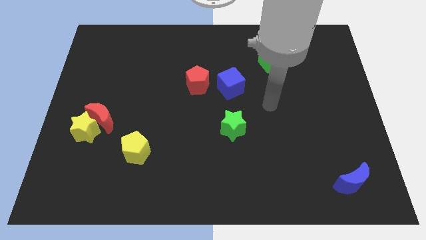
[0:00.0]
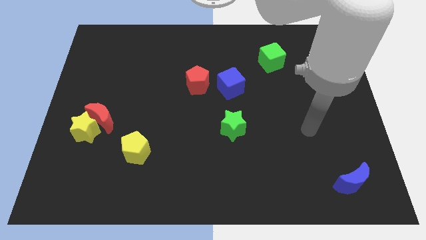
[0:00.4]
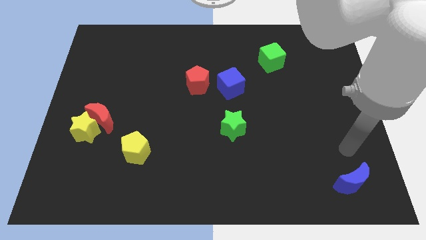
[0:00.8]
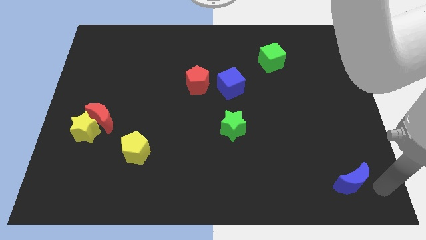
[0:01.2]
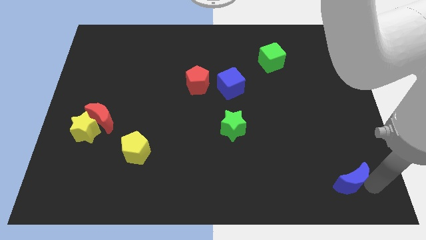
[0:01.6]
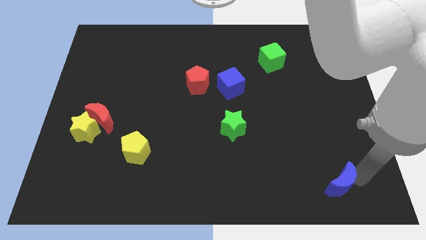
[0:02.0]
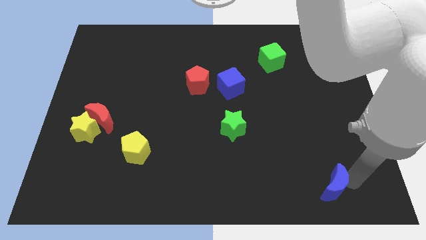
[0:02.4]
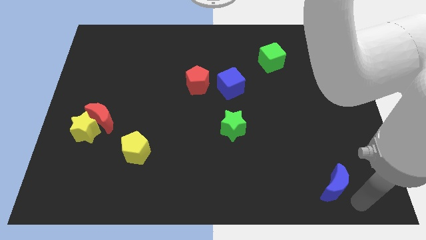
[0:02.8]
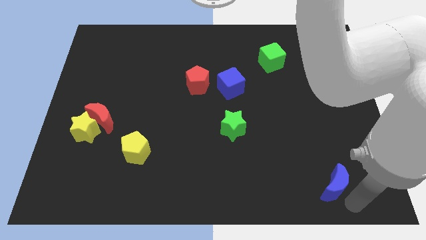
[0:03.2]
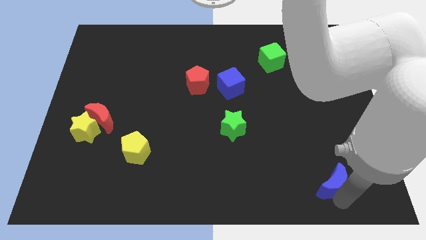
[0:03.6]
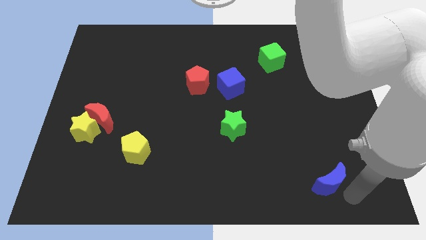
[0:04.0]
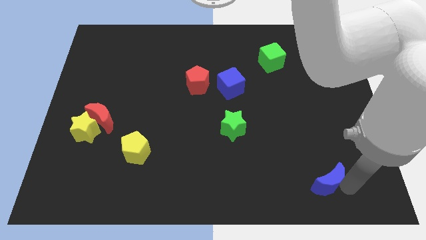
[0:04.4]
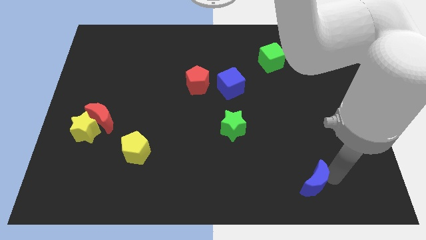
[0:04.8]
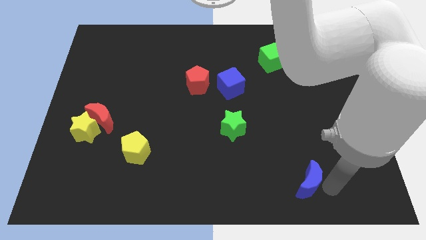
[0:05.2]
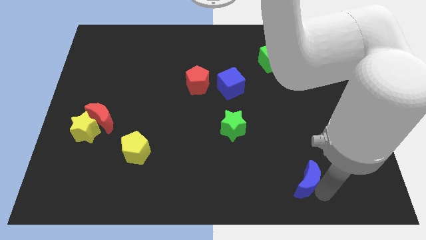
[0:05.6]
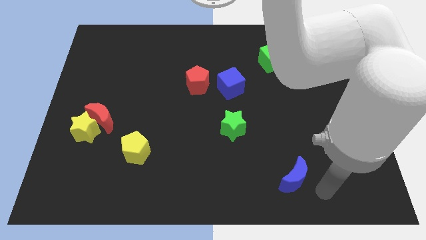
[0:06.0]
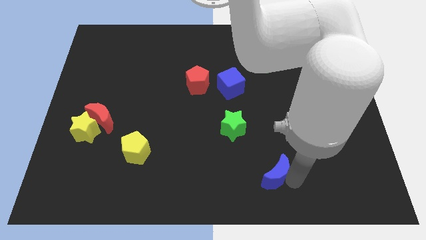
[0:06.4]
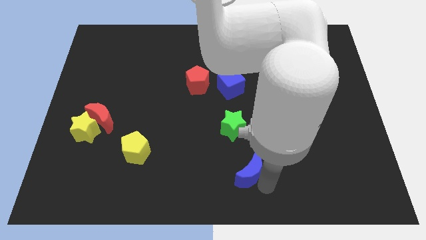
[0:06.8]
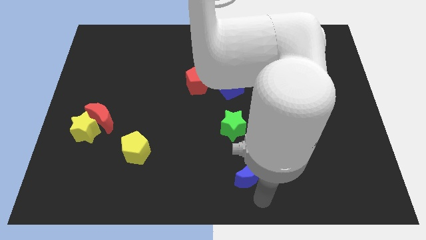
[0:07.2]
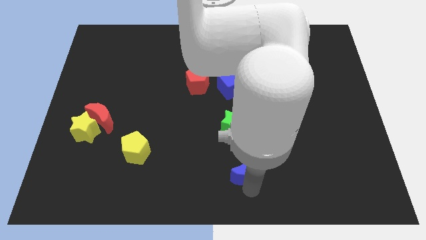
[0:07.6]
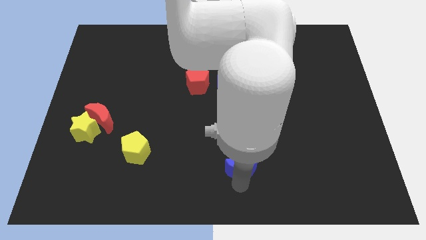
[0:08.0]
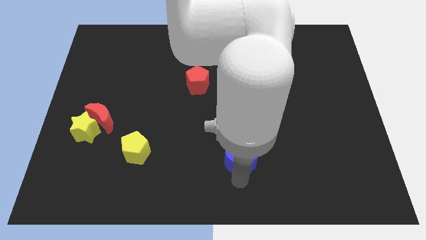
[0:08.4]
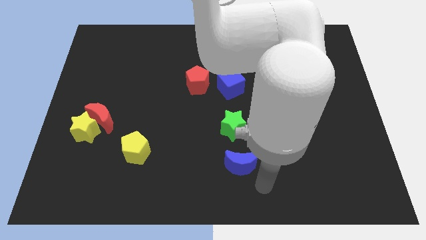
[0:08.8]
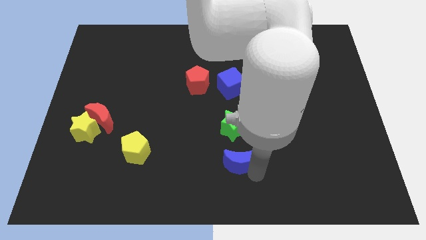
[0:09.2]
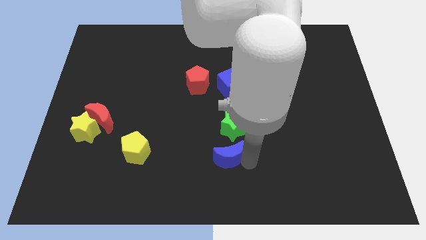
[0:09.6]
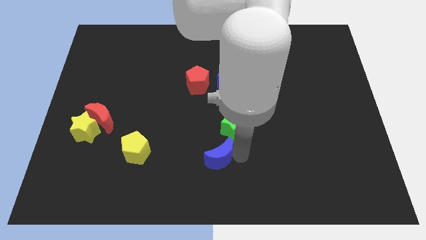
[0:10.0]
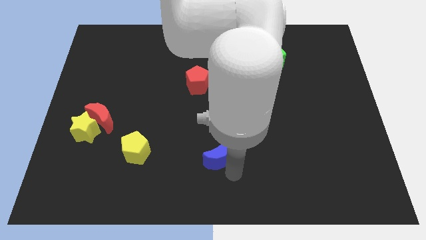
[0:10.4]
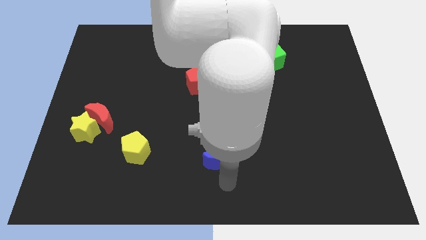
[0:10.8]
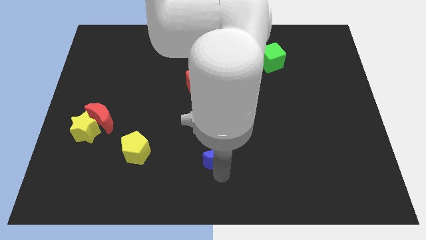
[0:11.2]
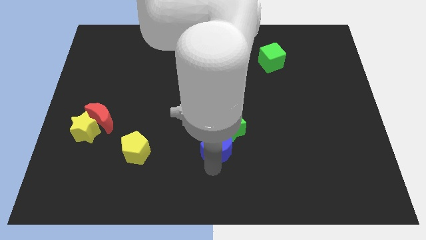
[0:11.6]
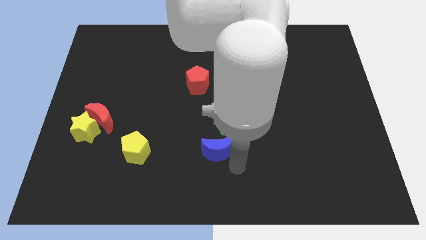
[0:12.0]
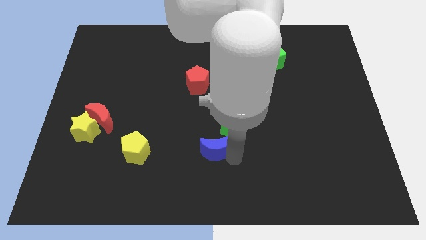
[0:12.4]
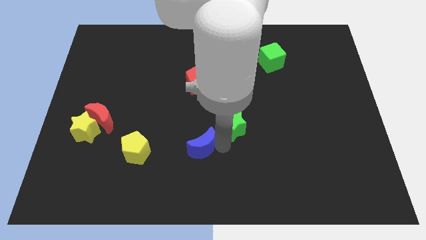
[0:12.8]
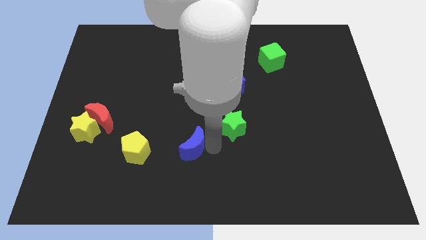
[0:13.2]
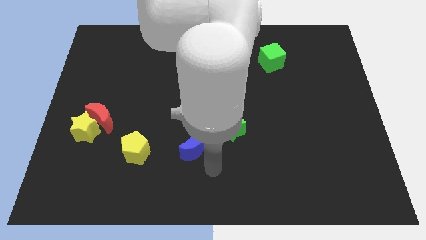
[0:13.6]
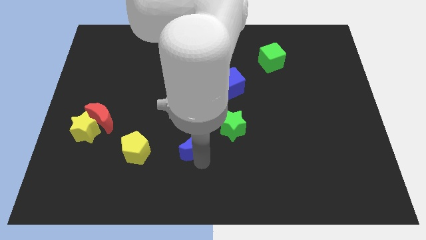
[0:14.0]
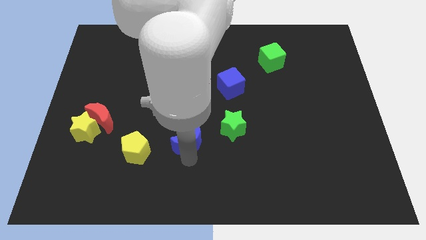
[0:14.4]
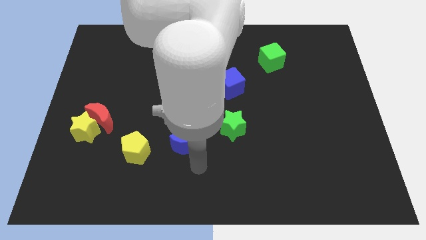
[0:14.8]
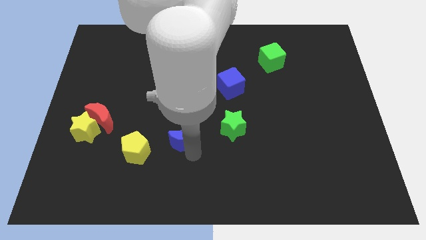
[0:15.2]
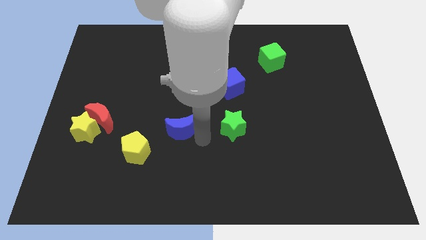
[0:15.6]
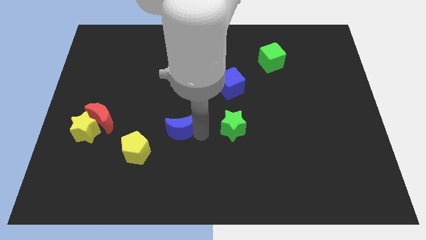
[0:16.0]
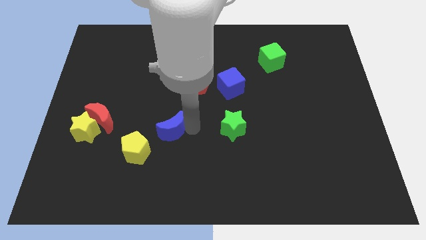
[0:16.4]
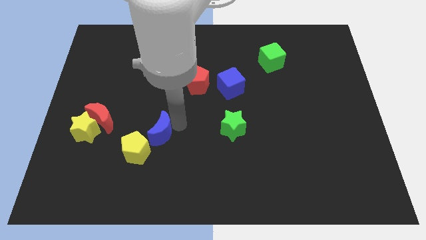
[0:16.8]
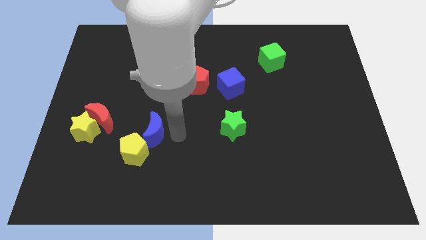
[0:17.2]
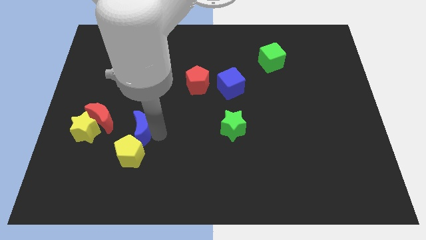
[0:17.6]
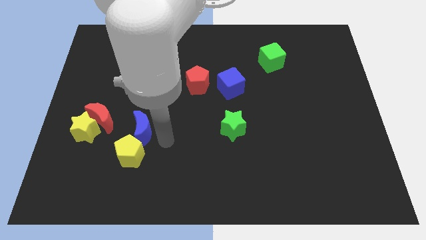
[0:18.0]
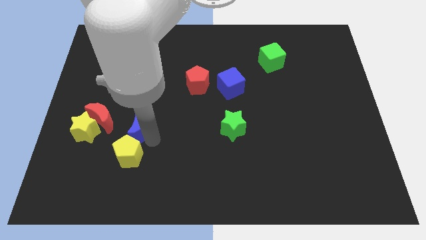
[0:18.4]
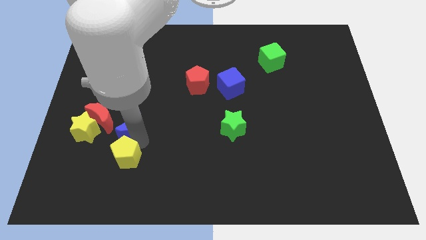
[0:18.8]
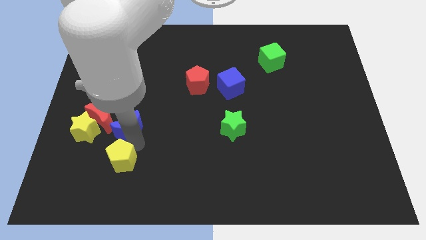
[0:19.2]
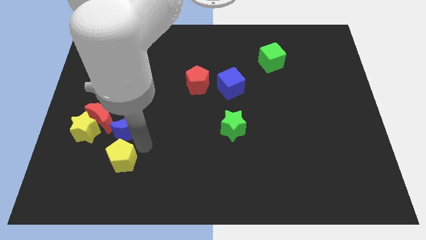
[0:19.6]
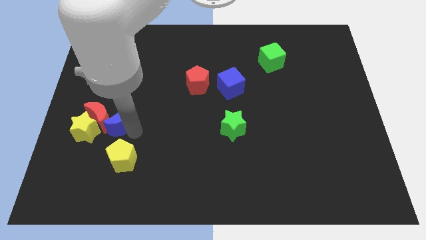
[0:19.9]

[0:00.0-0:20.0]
move the blue moon close to the red moon

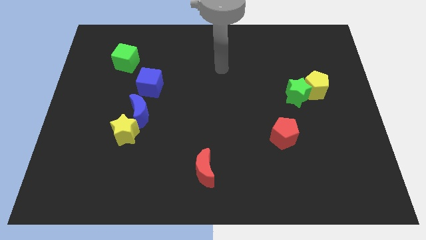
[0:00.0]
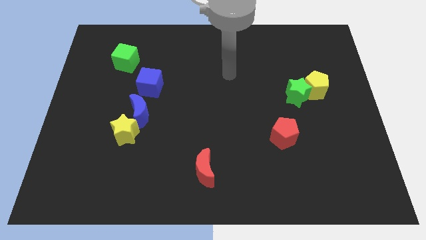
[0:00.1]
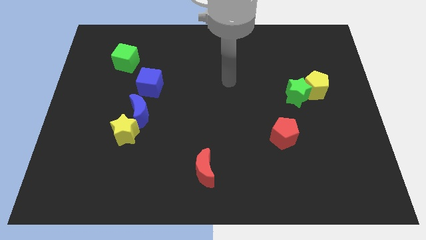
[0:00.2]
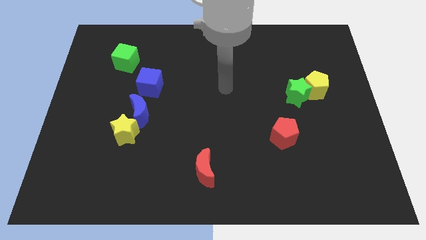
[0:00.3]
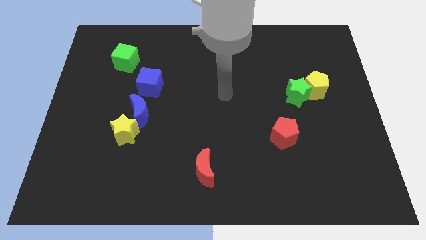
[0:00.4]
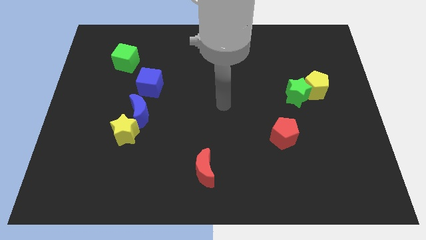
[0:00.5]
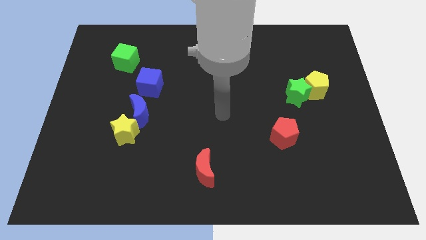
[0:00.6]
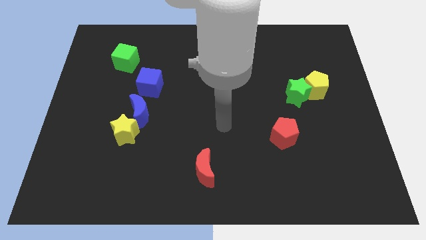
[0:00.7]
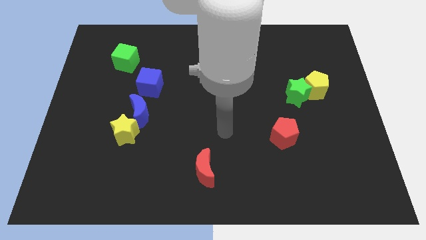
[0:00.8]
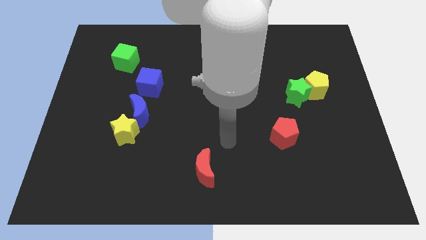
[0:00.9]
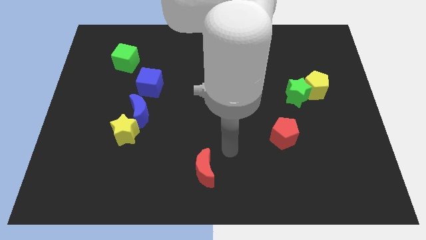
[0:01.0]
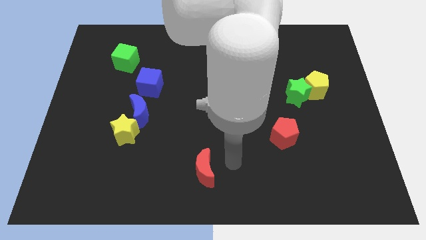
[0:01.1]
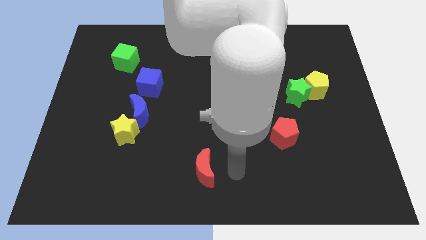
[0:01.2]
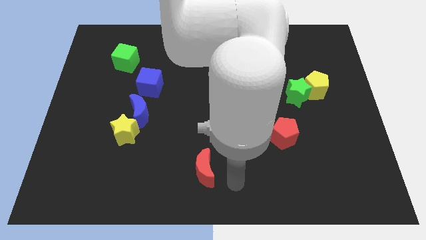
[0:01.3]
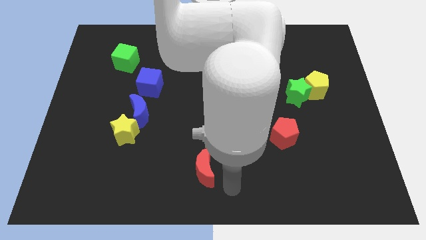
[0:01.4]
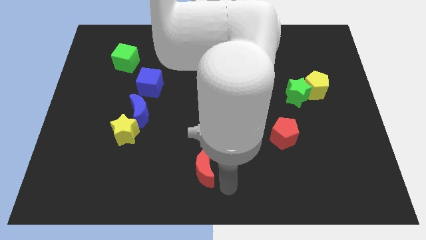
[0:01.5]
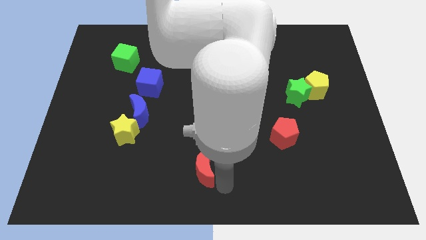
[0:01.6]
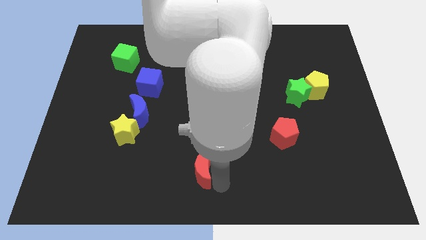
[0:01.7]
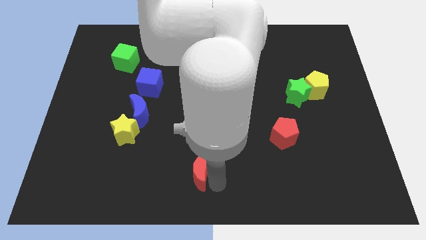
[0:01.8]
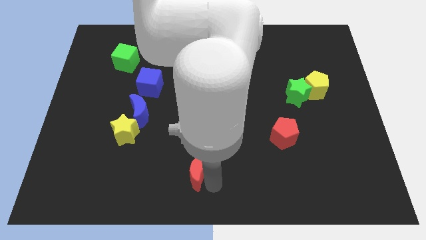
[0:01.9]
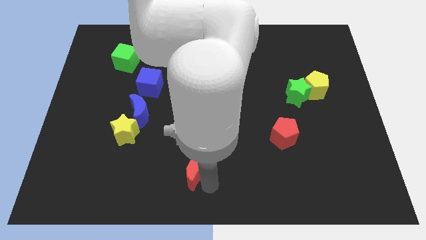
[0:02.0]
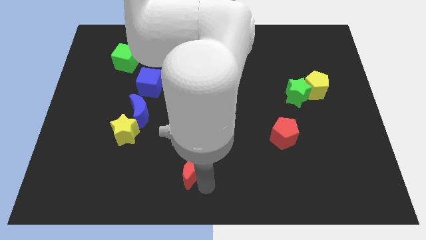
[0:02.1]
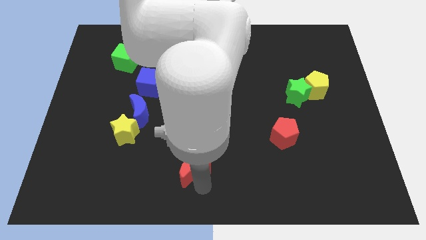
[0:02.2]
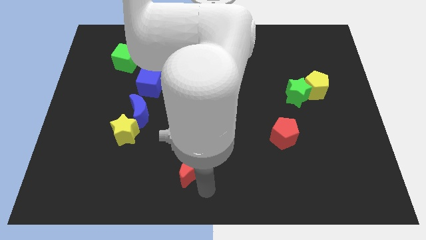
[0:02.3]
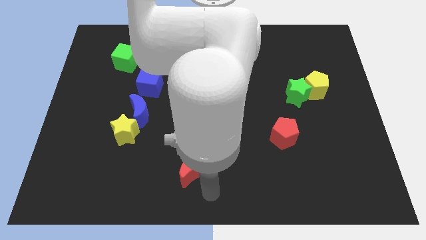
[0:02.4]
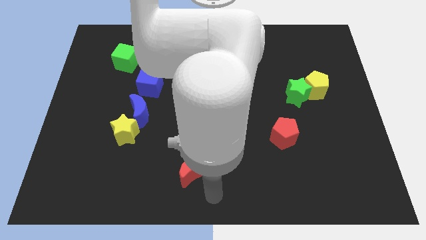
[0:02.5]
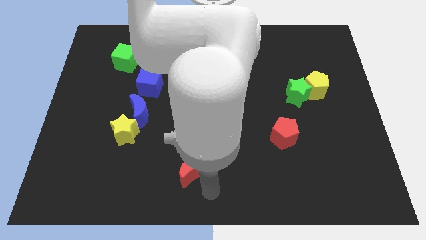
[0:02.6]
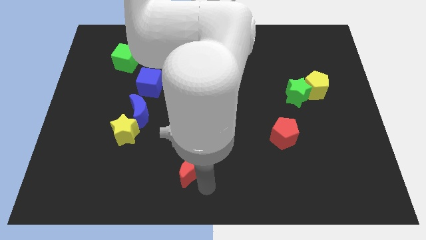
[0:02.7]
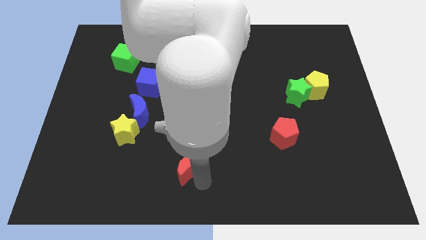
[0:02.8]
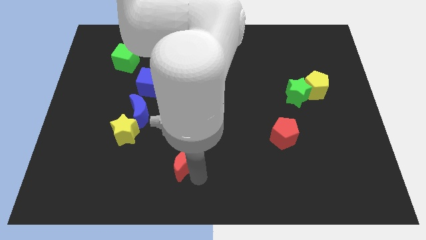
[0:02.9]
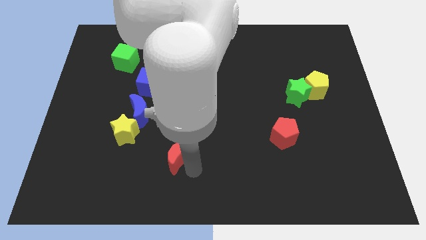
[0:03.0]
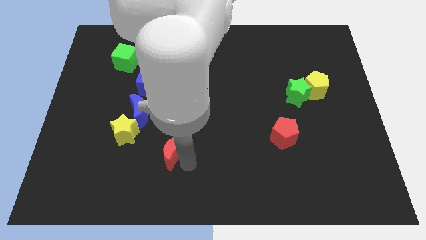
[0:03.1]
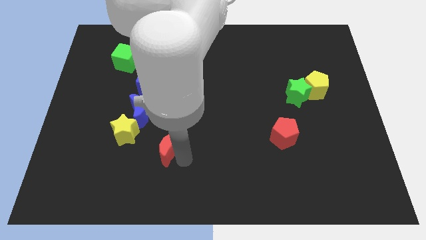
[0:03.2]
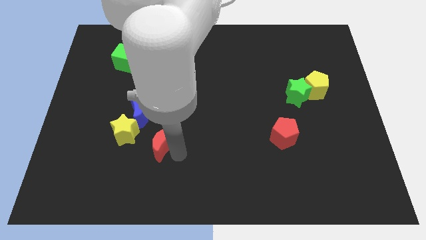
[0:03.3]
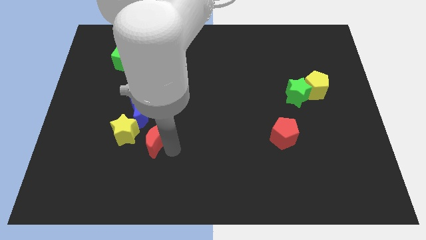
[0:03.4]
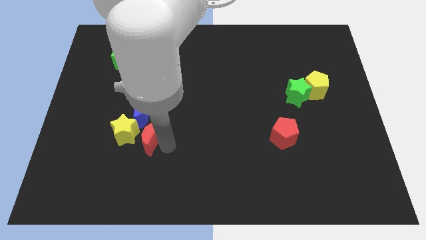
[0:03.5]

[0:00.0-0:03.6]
put the red moon next to the yellow star
